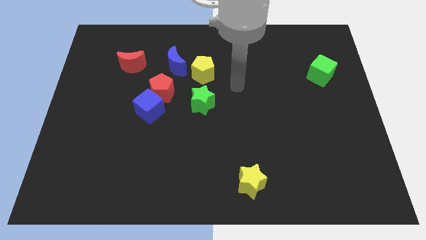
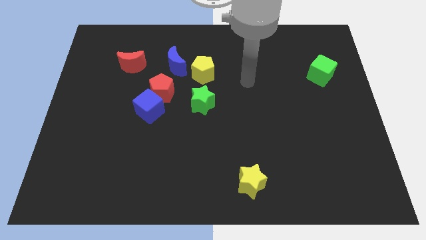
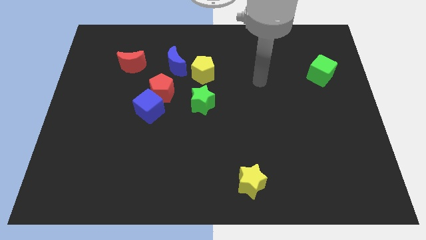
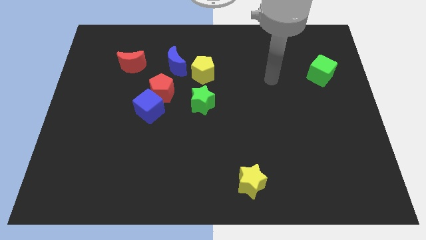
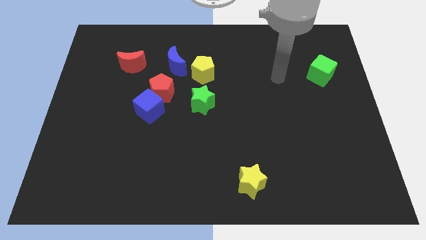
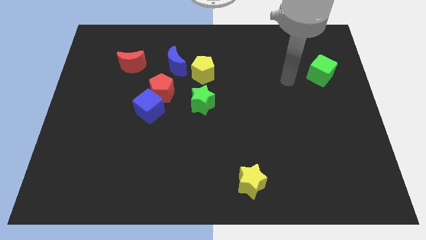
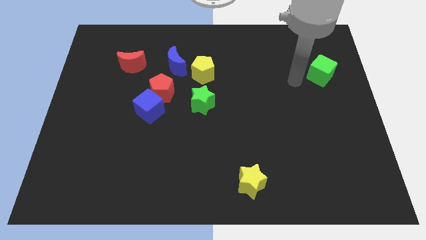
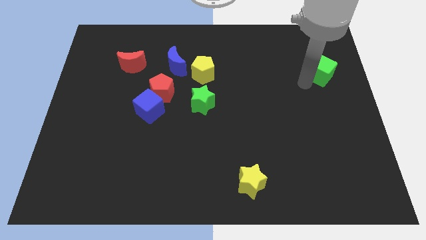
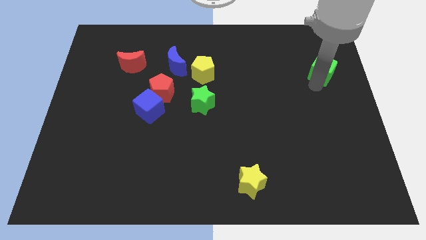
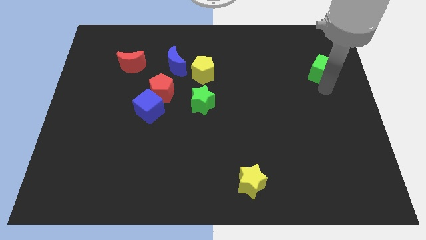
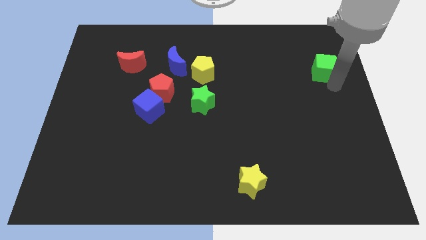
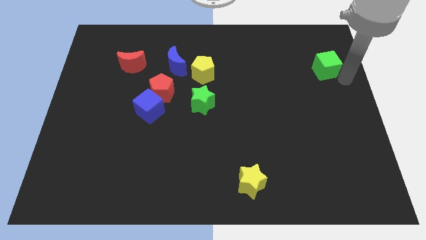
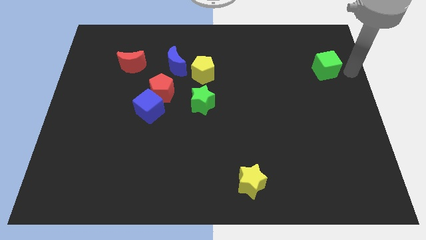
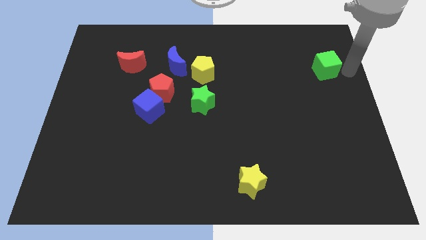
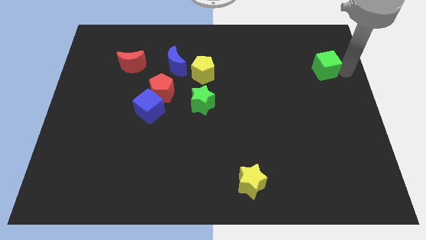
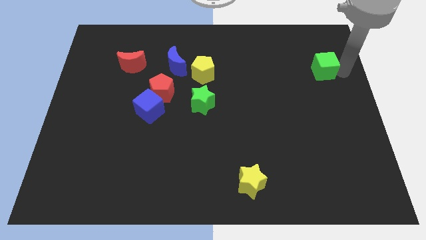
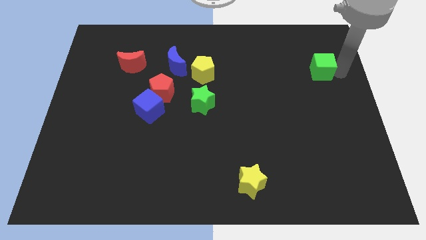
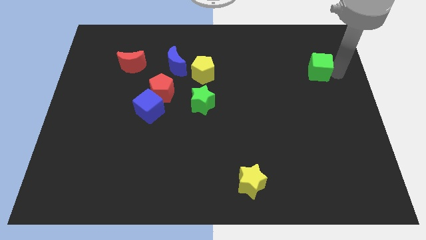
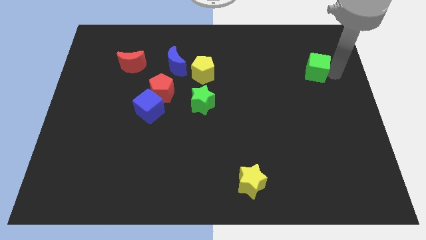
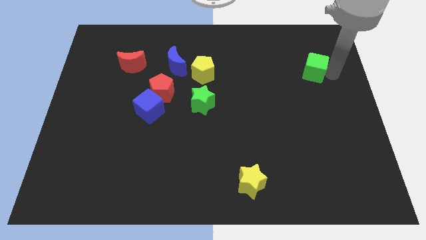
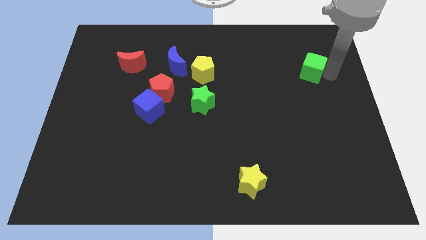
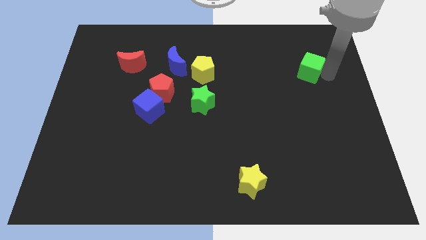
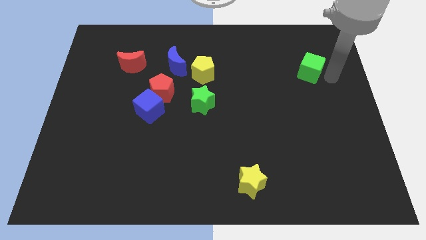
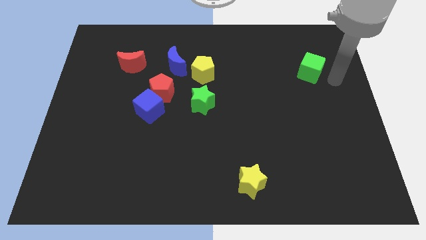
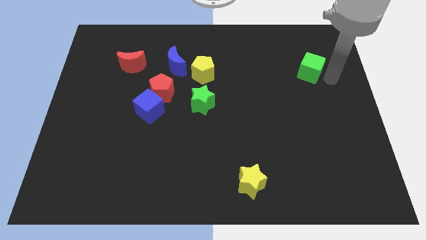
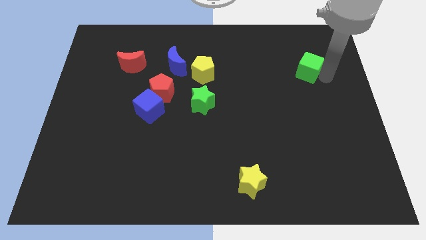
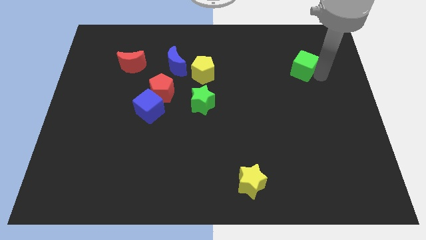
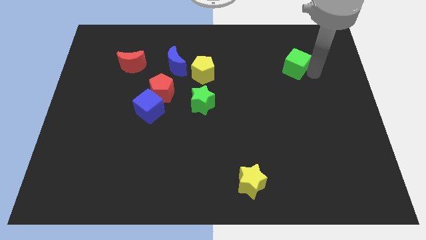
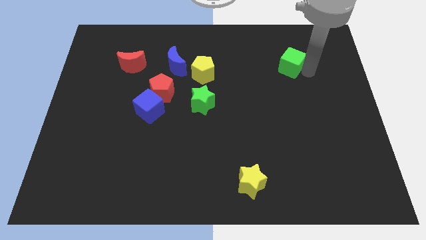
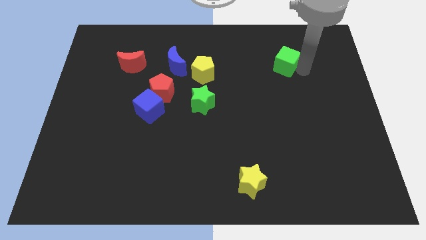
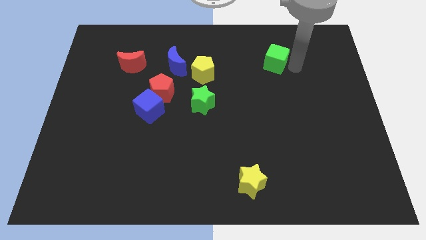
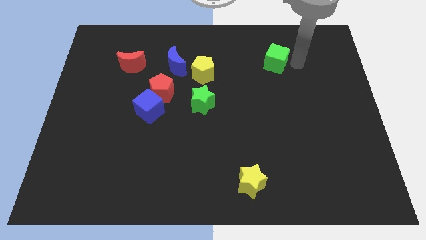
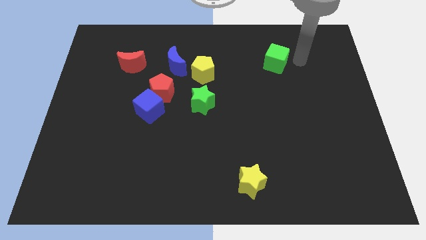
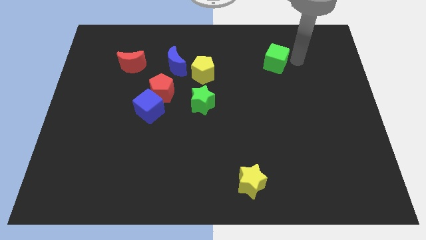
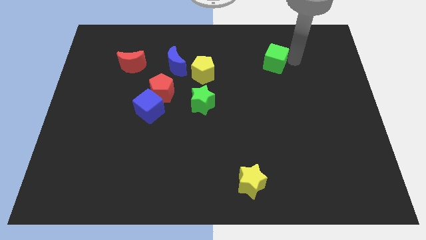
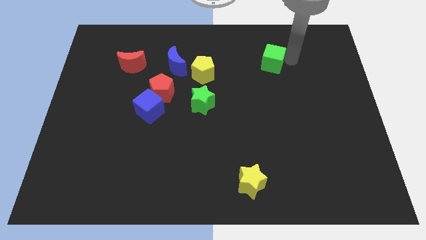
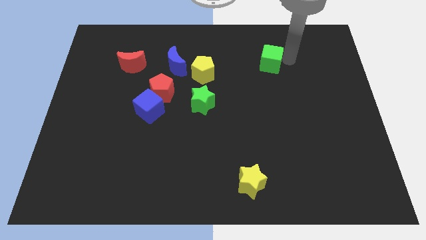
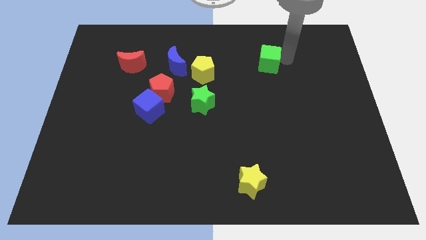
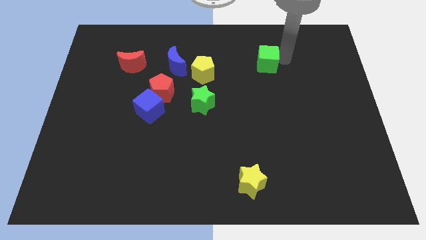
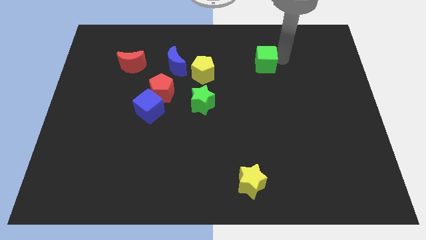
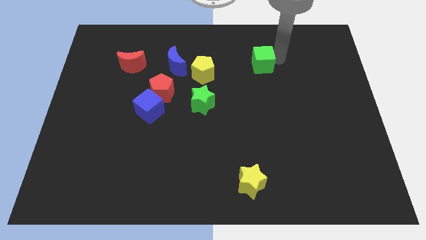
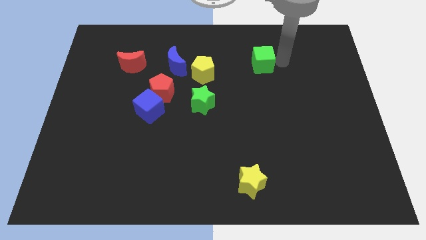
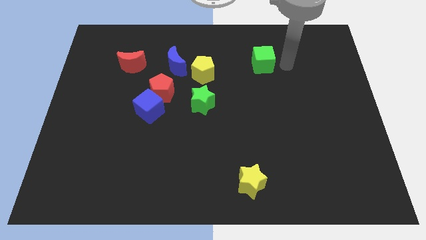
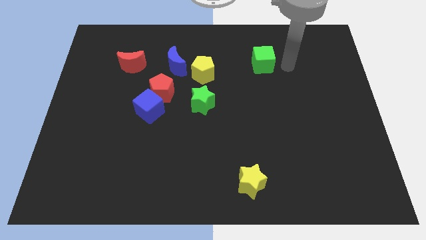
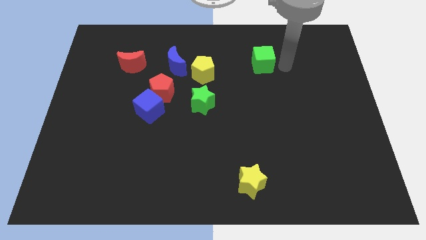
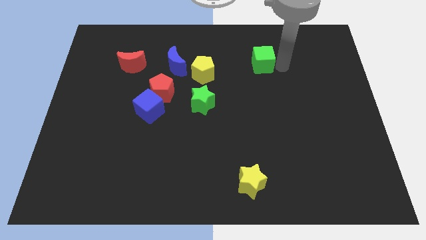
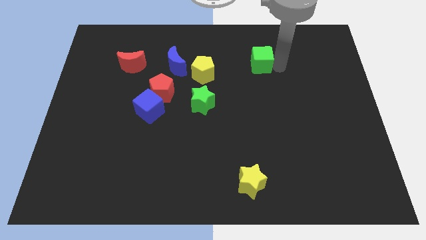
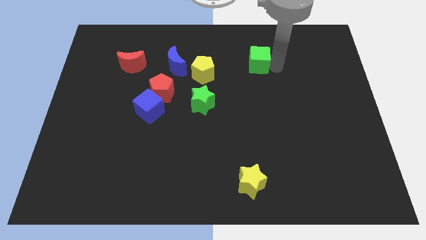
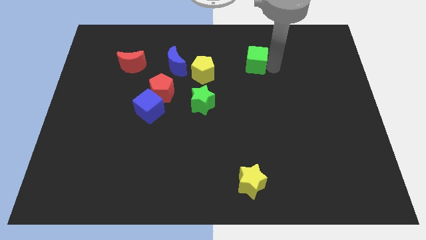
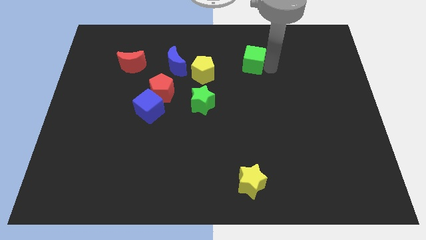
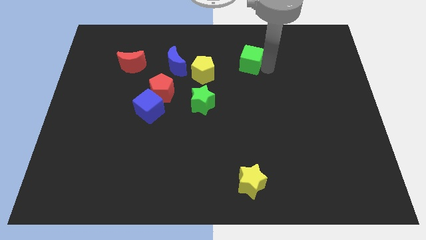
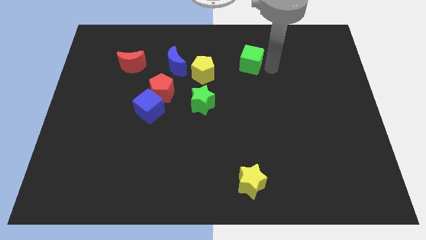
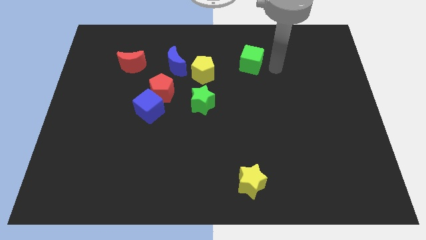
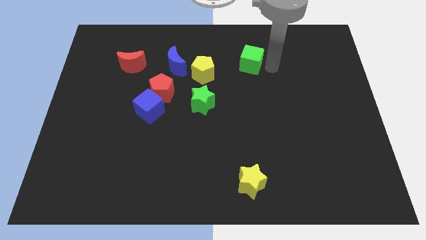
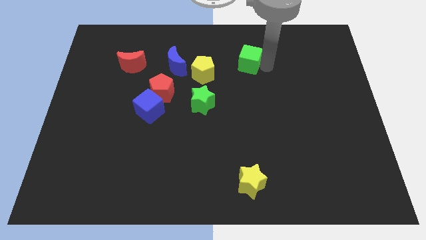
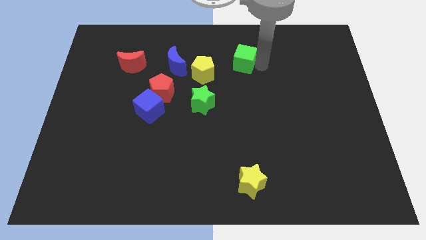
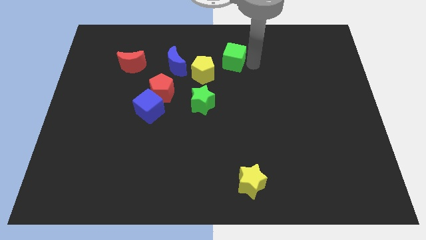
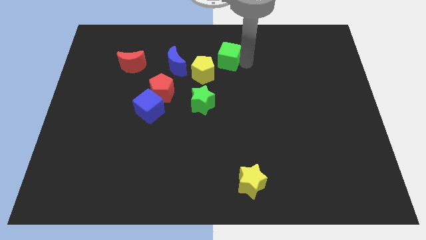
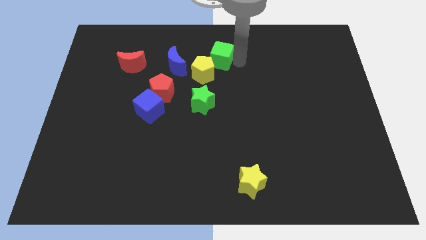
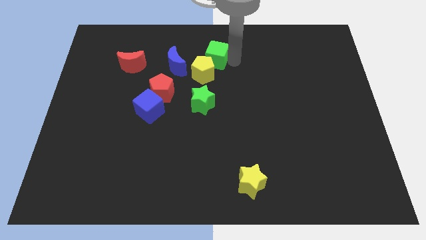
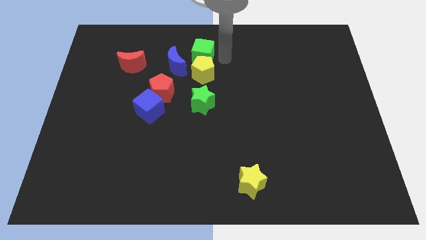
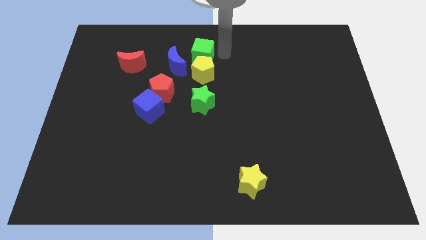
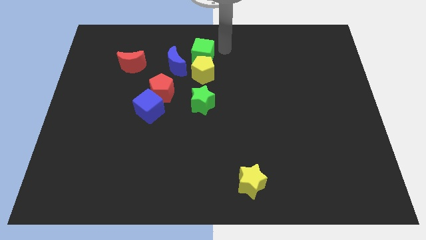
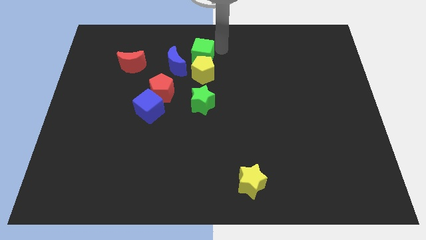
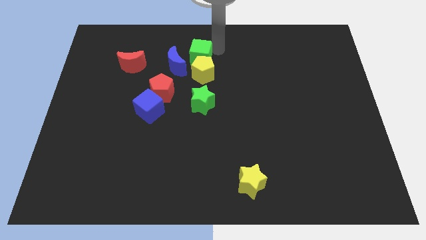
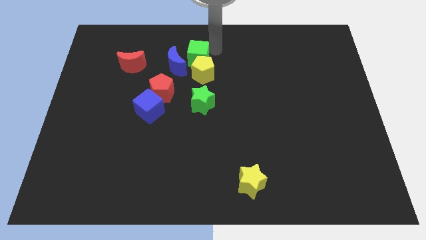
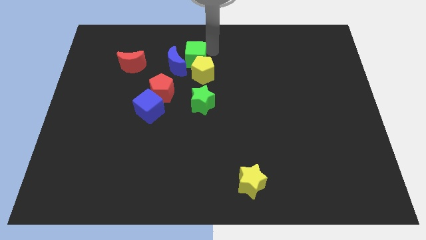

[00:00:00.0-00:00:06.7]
slide the green cube to the blue moon

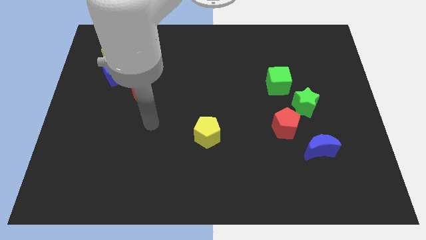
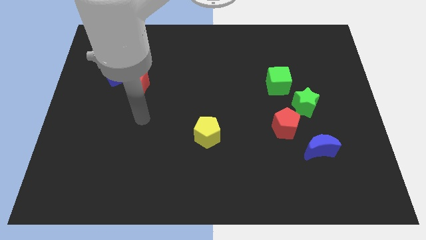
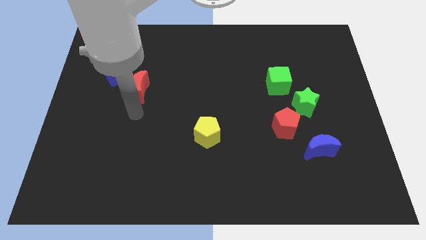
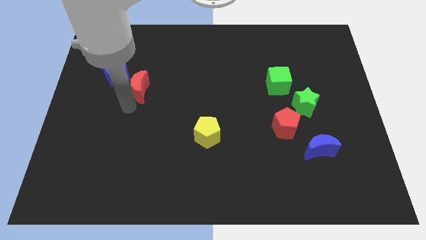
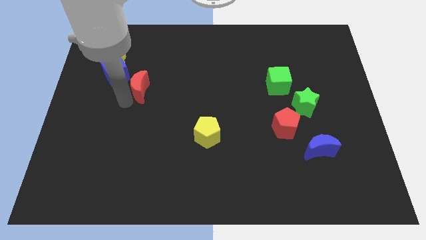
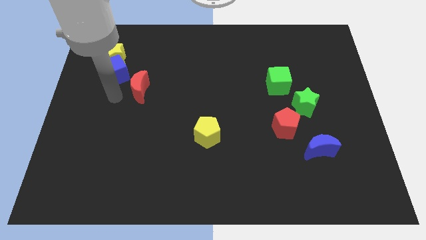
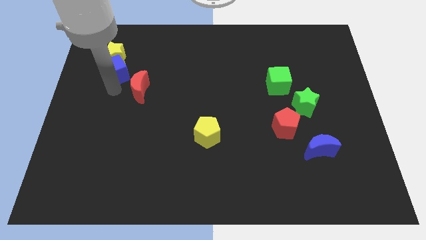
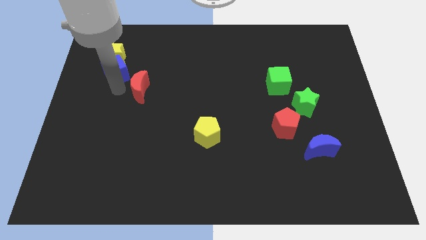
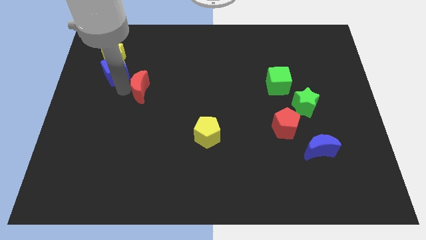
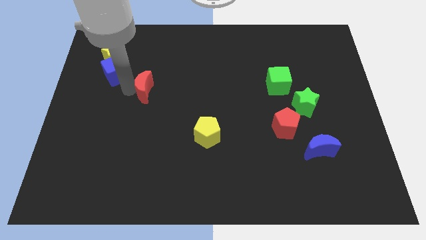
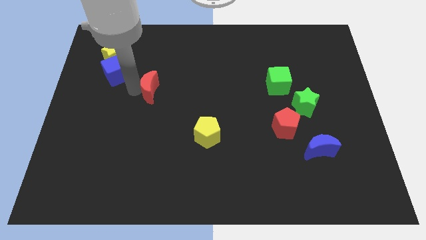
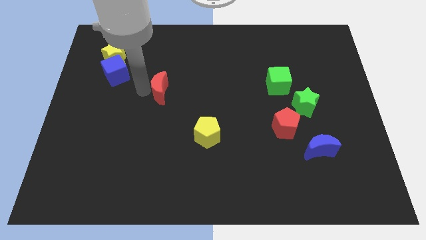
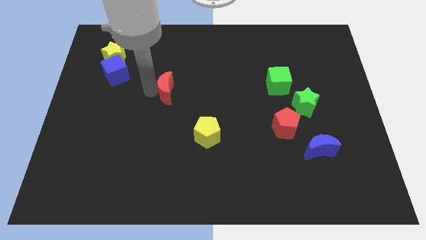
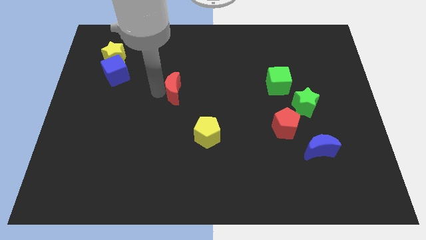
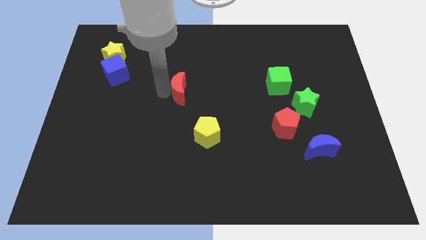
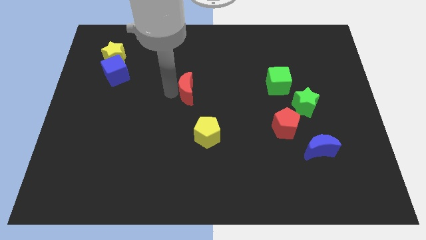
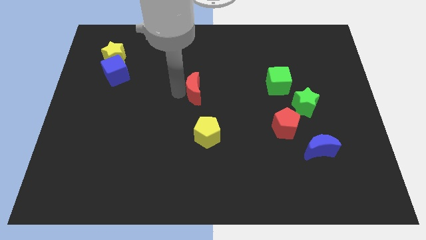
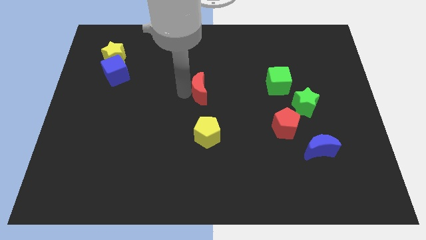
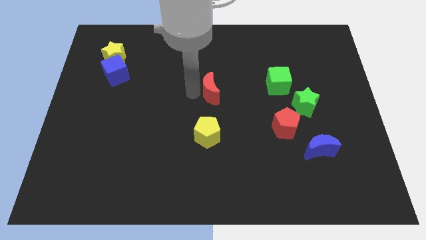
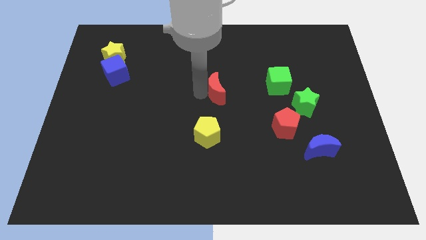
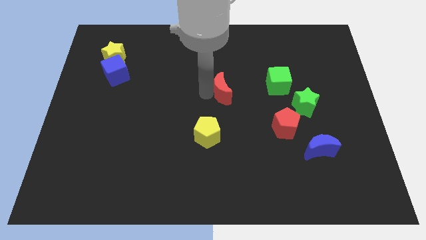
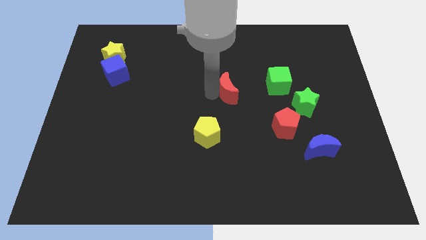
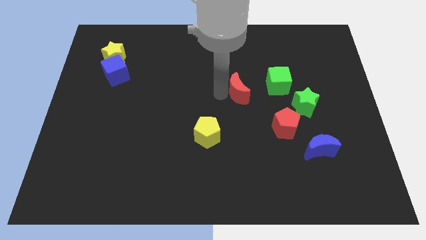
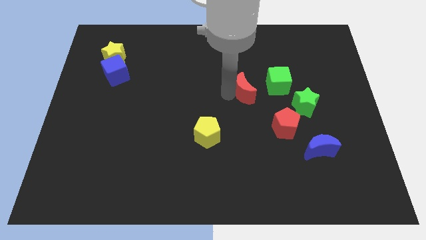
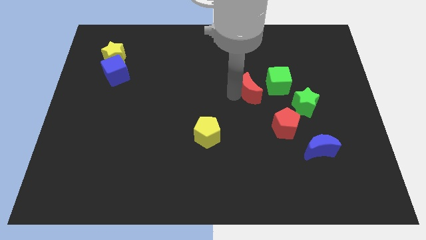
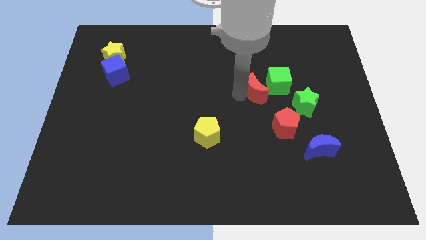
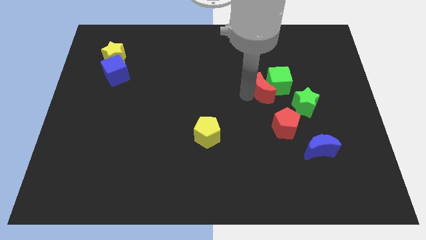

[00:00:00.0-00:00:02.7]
push the red moon close to the green cube
